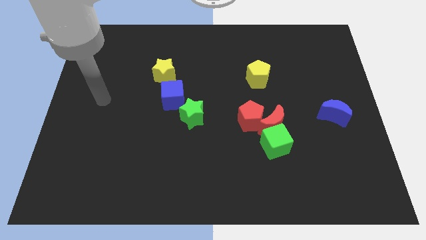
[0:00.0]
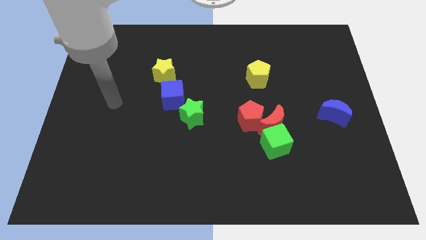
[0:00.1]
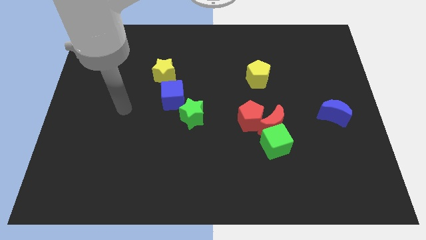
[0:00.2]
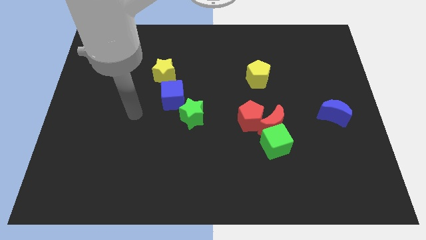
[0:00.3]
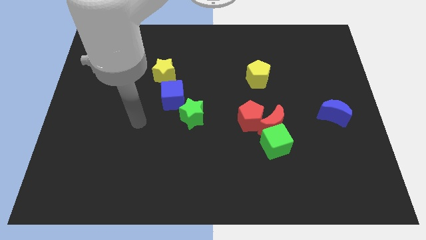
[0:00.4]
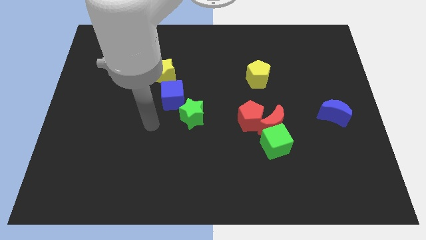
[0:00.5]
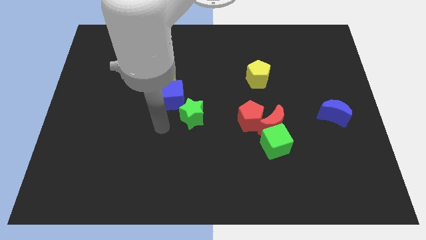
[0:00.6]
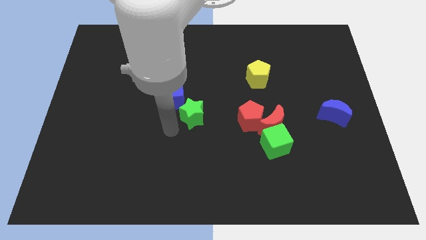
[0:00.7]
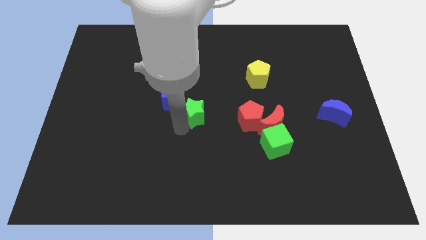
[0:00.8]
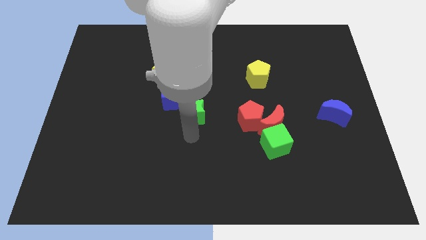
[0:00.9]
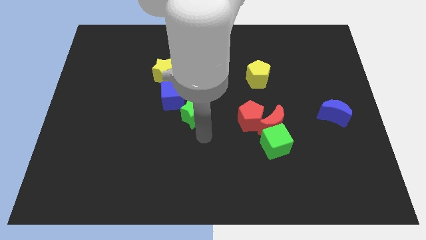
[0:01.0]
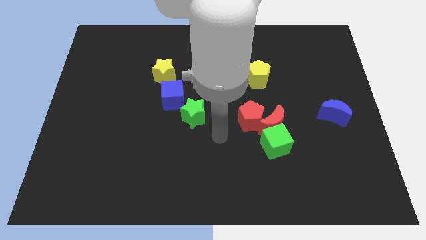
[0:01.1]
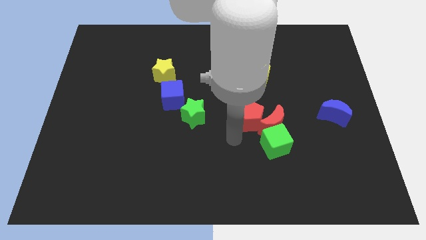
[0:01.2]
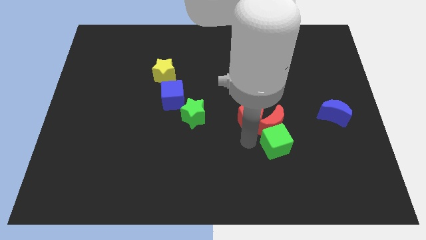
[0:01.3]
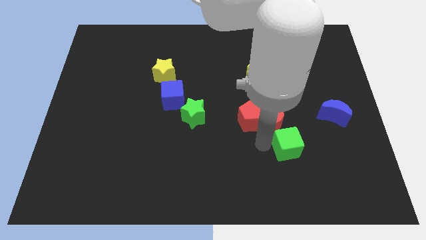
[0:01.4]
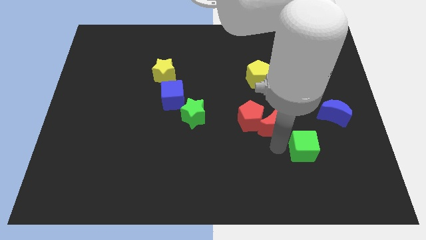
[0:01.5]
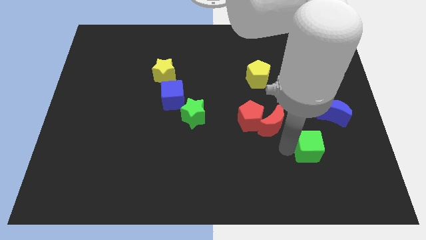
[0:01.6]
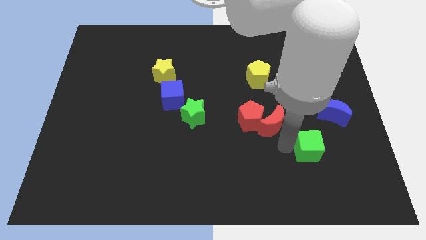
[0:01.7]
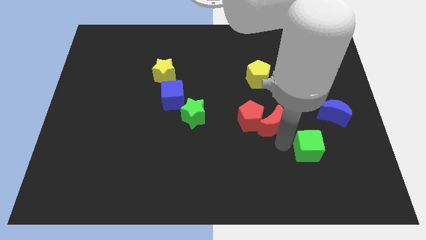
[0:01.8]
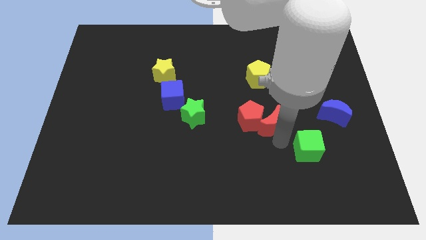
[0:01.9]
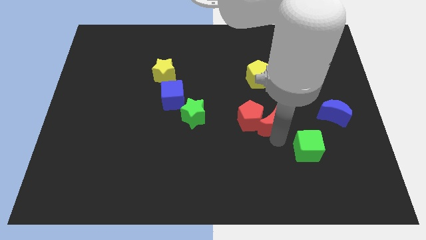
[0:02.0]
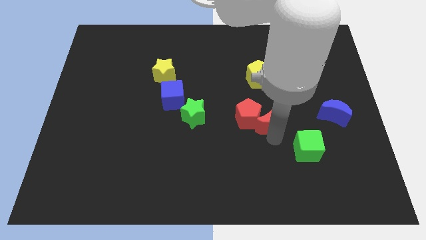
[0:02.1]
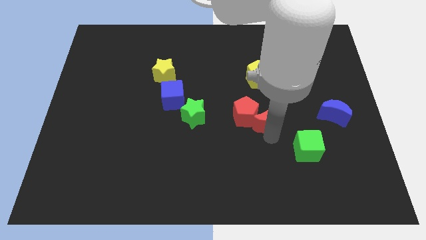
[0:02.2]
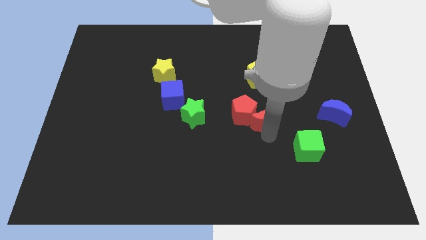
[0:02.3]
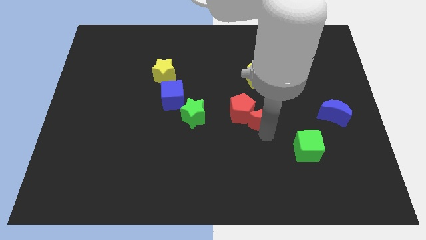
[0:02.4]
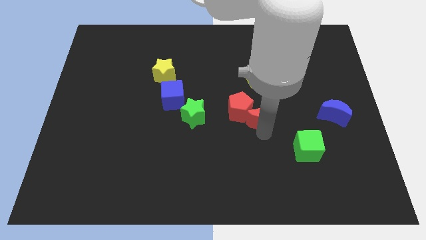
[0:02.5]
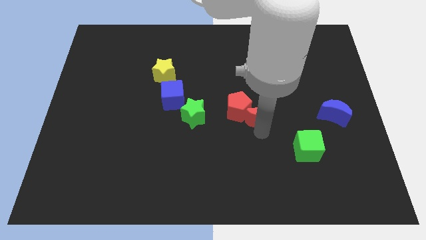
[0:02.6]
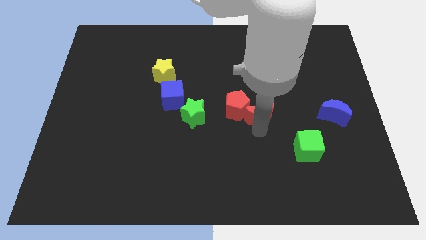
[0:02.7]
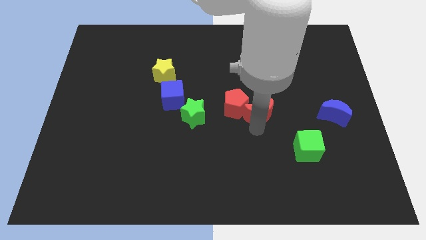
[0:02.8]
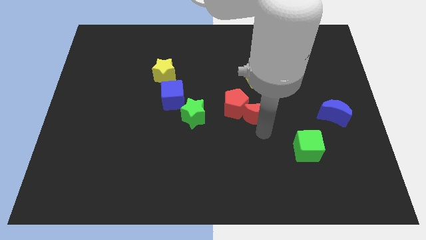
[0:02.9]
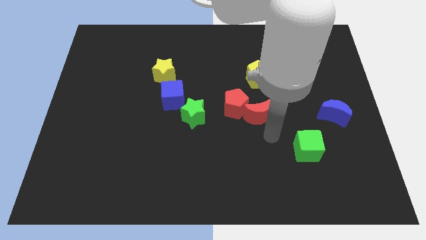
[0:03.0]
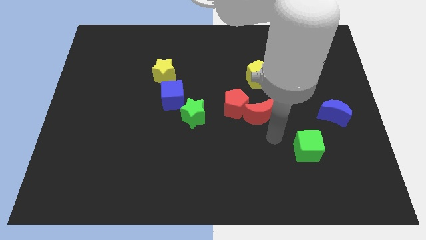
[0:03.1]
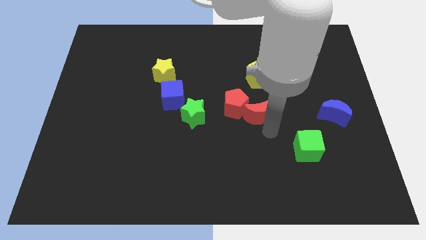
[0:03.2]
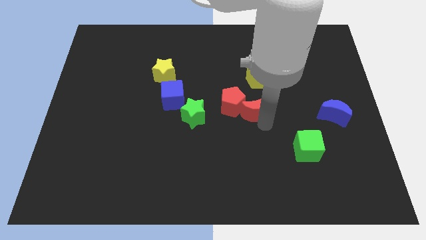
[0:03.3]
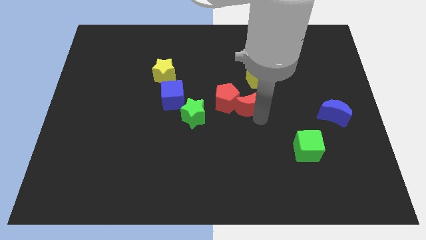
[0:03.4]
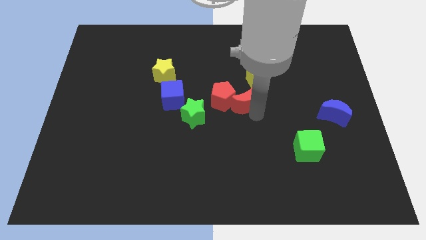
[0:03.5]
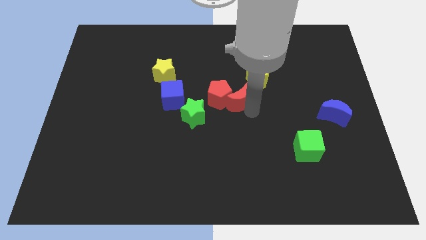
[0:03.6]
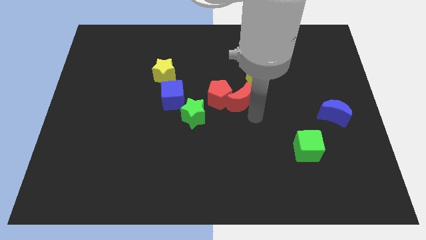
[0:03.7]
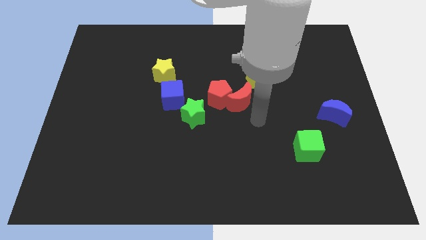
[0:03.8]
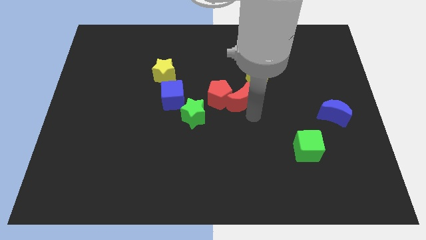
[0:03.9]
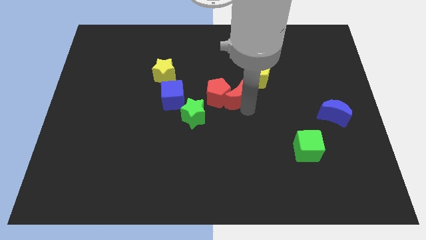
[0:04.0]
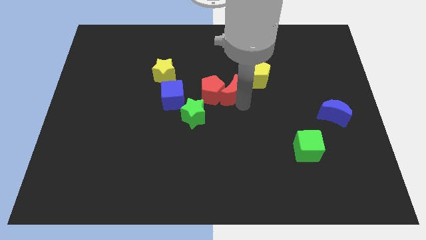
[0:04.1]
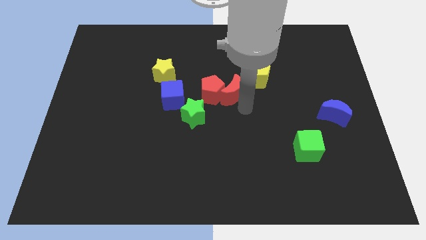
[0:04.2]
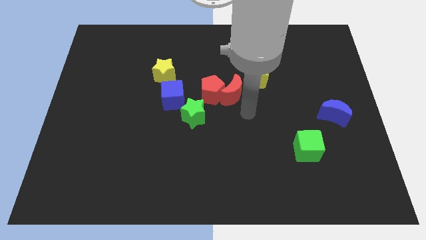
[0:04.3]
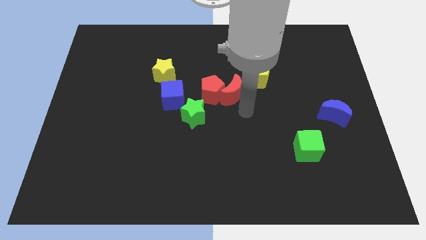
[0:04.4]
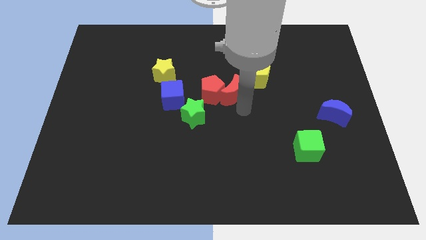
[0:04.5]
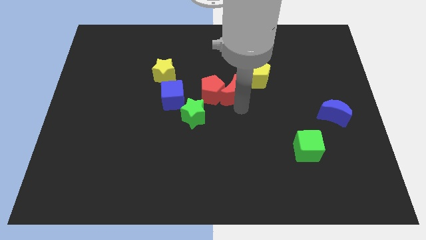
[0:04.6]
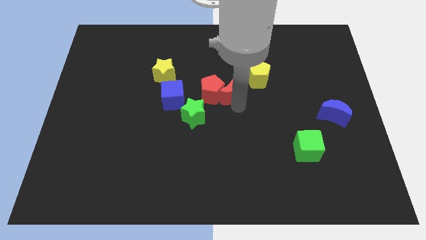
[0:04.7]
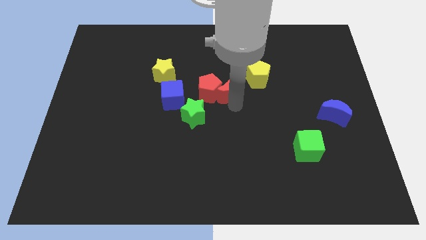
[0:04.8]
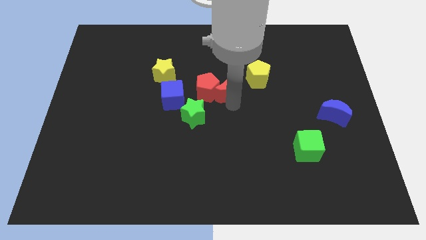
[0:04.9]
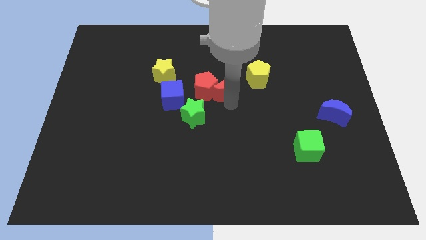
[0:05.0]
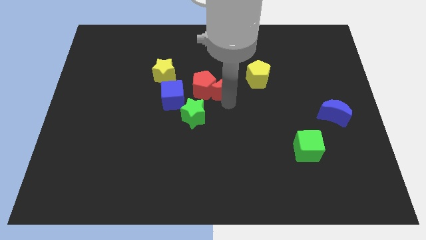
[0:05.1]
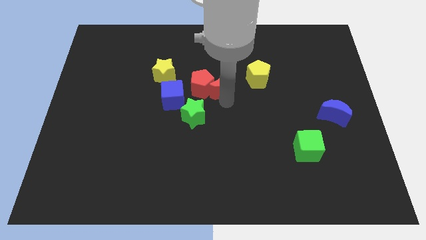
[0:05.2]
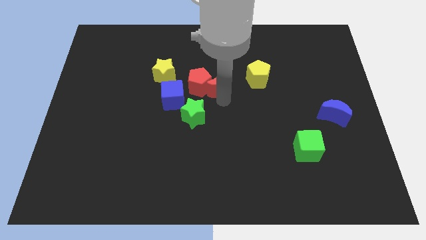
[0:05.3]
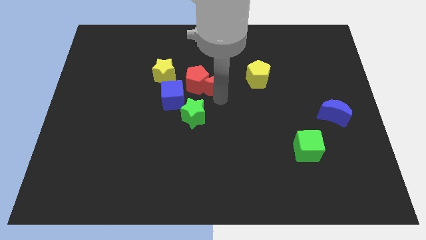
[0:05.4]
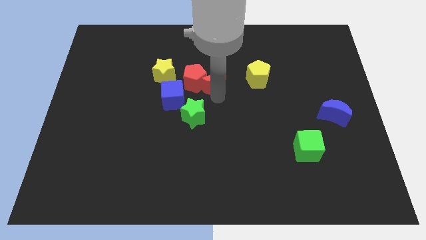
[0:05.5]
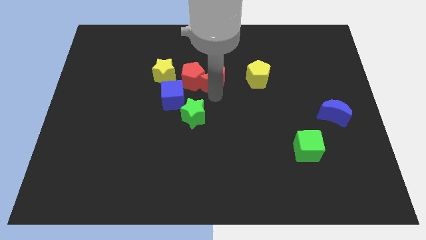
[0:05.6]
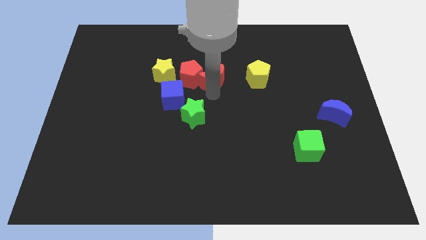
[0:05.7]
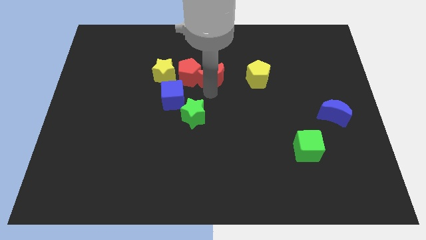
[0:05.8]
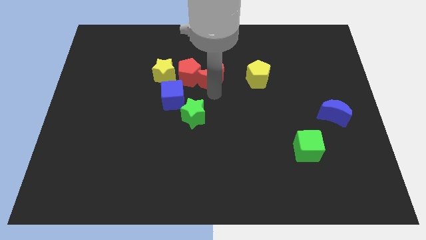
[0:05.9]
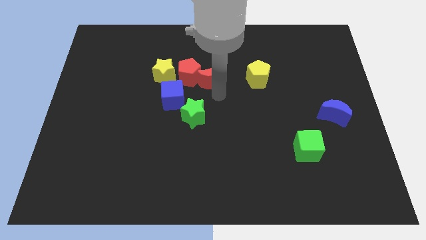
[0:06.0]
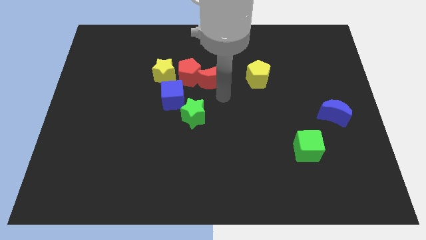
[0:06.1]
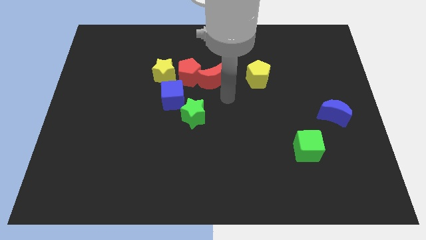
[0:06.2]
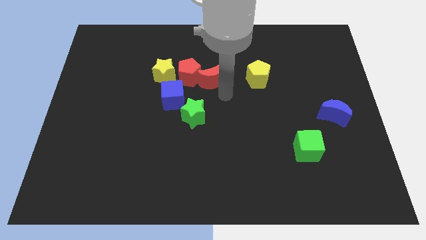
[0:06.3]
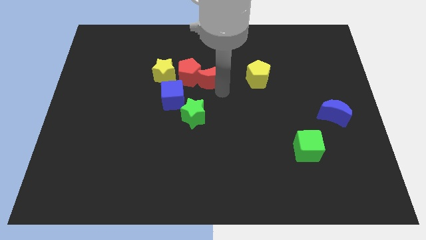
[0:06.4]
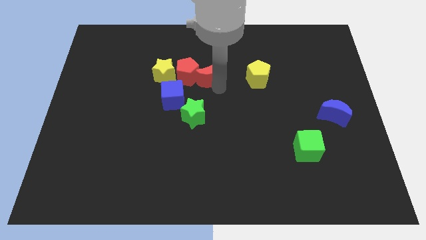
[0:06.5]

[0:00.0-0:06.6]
slide the red moon up and then to the left

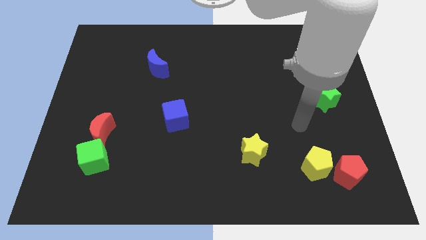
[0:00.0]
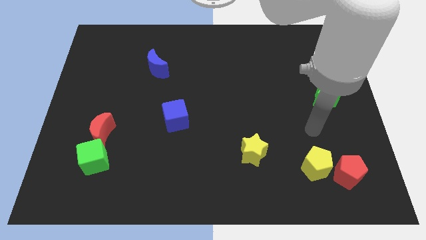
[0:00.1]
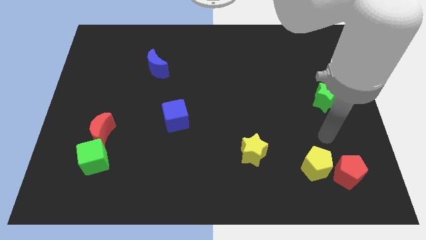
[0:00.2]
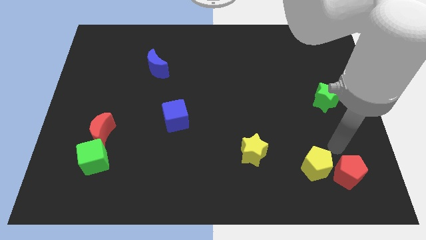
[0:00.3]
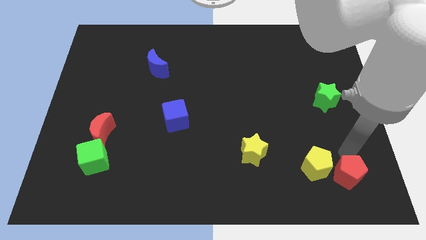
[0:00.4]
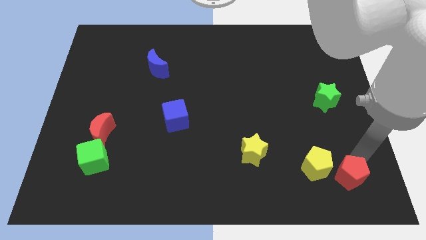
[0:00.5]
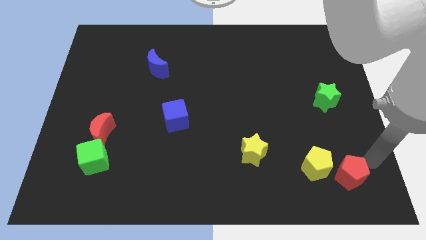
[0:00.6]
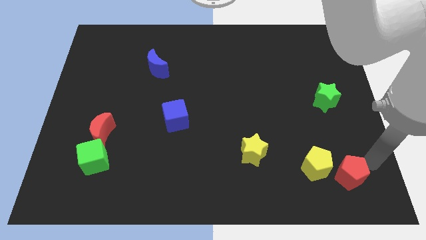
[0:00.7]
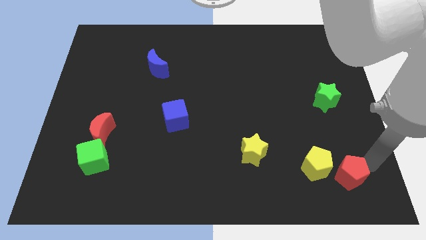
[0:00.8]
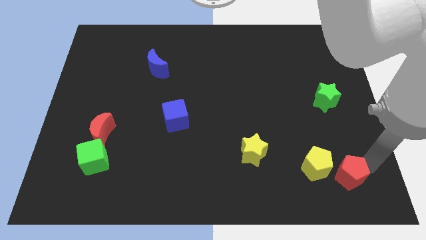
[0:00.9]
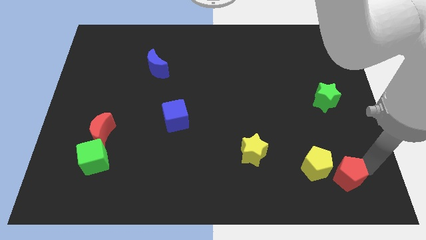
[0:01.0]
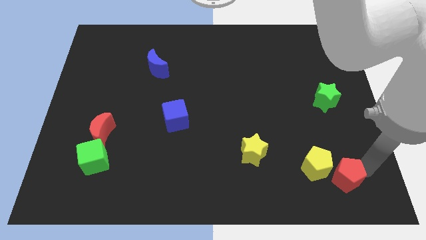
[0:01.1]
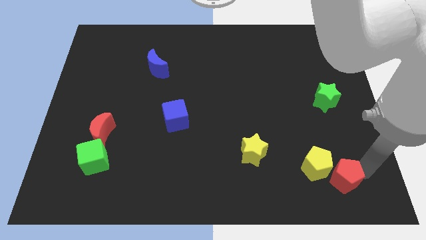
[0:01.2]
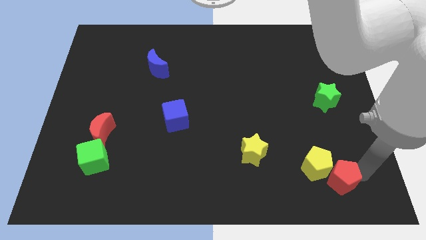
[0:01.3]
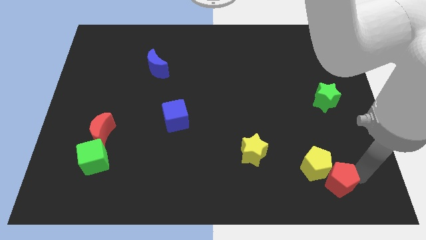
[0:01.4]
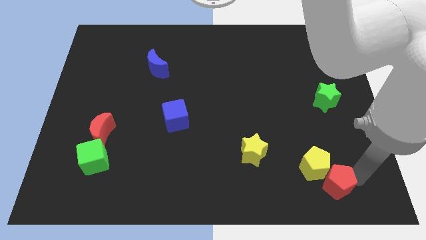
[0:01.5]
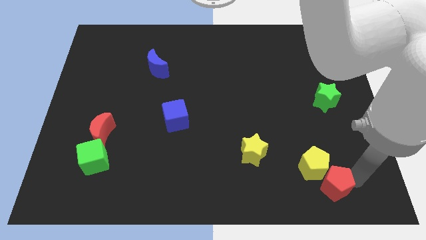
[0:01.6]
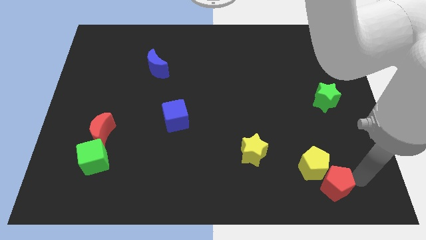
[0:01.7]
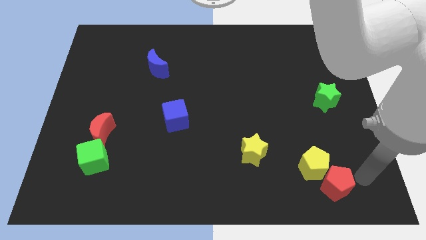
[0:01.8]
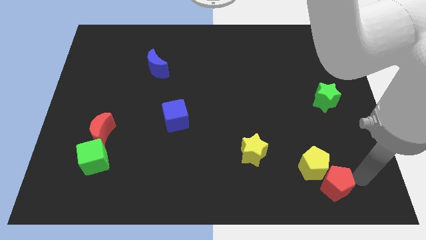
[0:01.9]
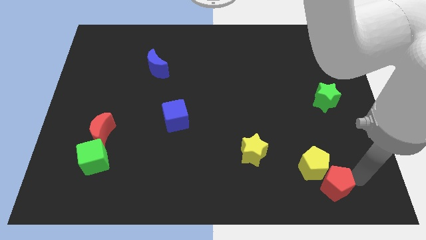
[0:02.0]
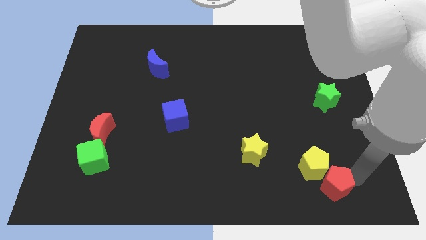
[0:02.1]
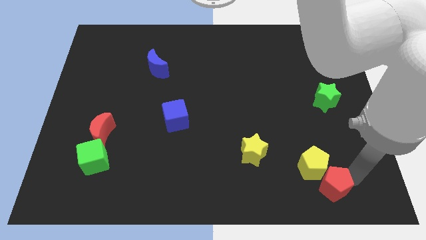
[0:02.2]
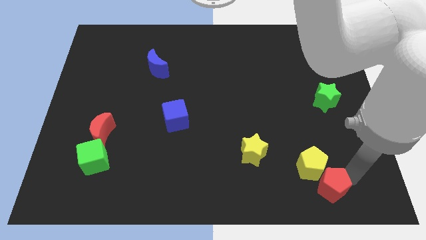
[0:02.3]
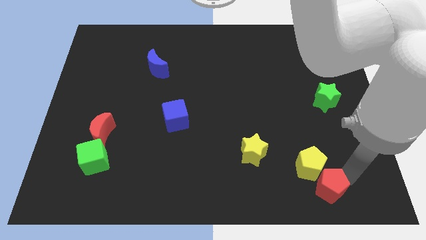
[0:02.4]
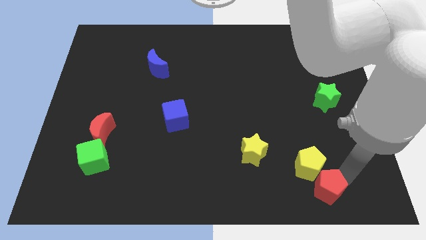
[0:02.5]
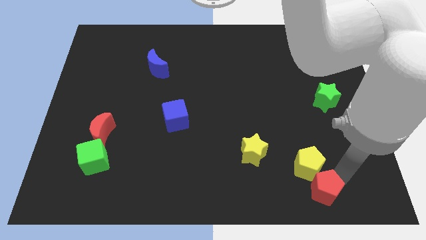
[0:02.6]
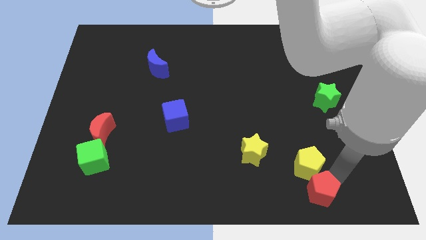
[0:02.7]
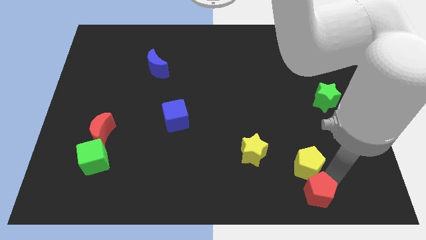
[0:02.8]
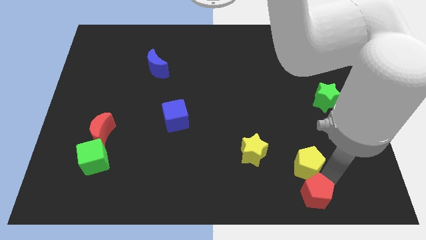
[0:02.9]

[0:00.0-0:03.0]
slightly push the red pentagon to the left
